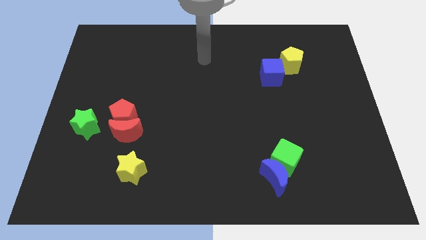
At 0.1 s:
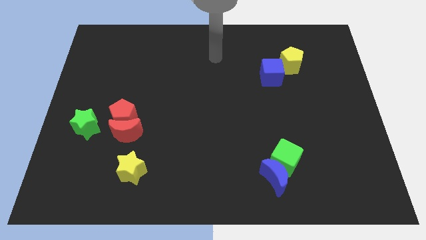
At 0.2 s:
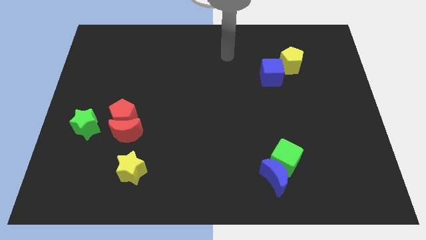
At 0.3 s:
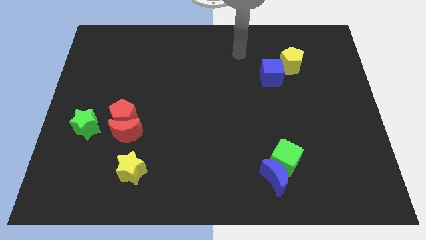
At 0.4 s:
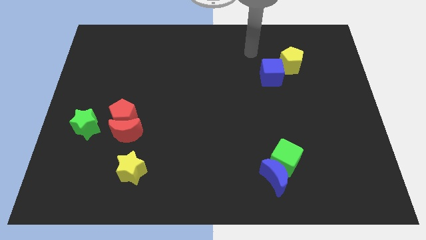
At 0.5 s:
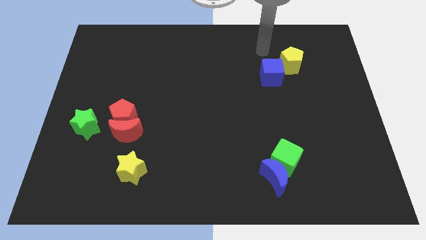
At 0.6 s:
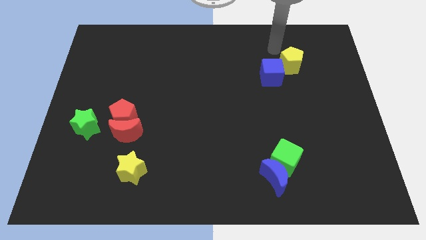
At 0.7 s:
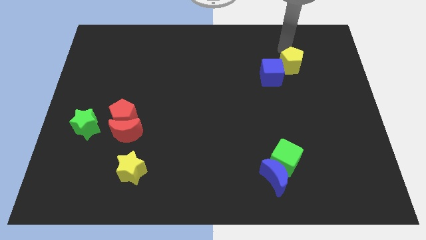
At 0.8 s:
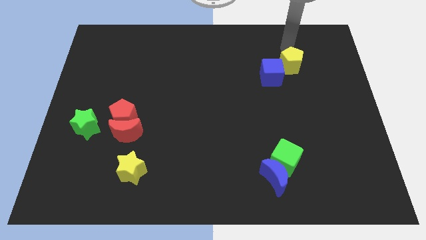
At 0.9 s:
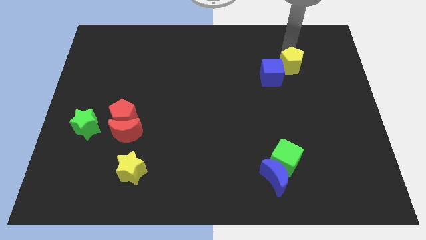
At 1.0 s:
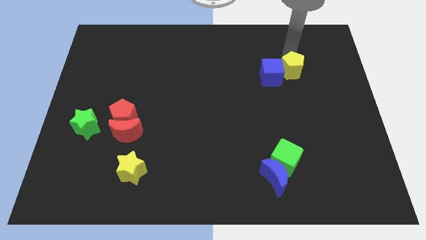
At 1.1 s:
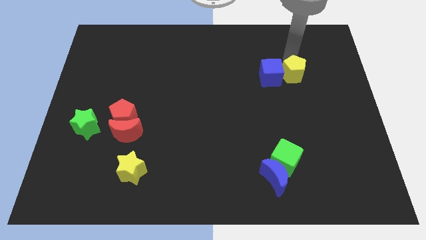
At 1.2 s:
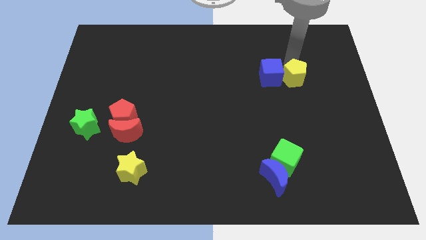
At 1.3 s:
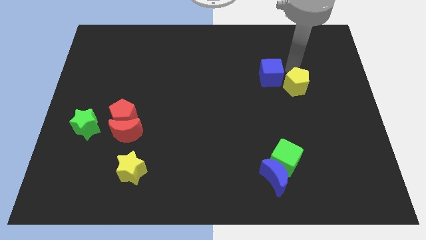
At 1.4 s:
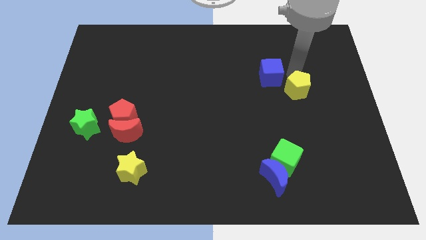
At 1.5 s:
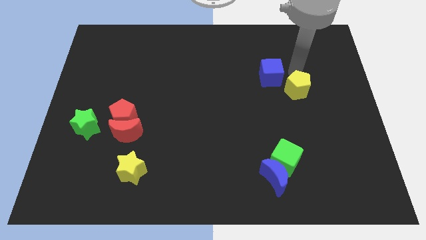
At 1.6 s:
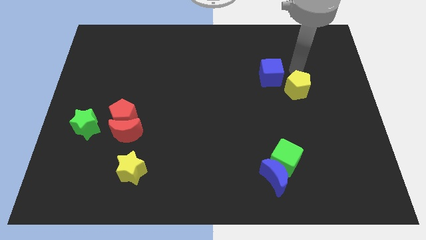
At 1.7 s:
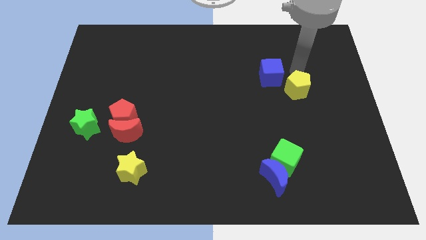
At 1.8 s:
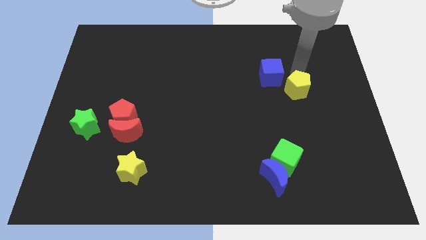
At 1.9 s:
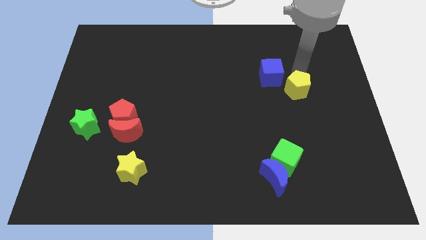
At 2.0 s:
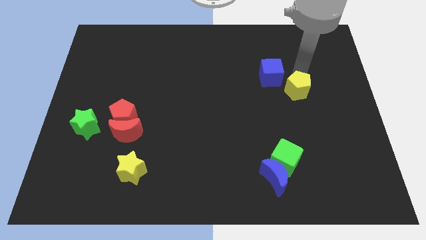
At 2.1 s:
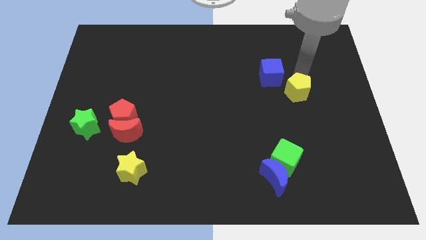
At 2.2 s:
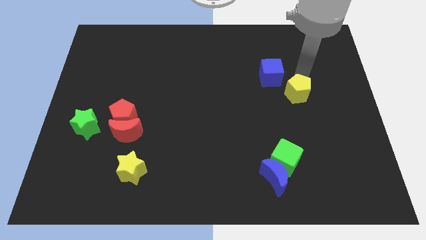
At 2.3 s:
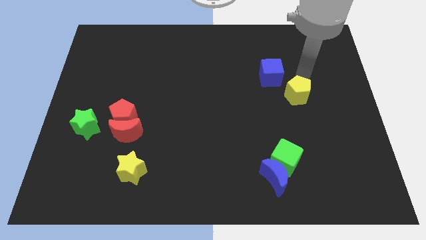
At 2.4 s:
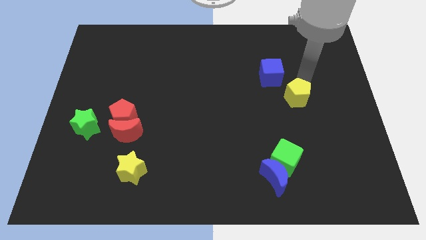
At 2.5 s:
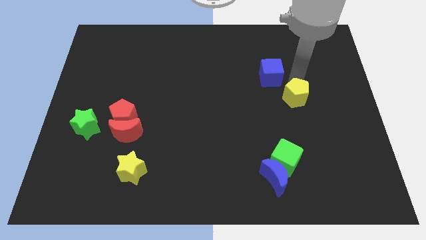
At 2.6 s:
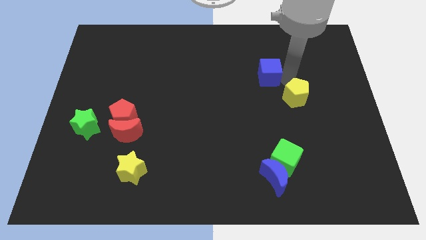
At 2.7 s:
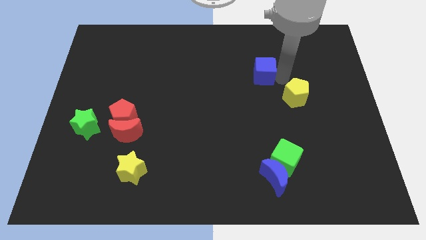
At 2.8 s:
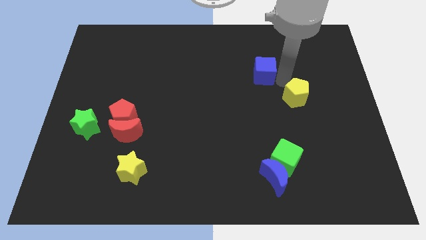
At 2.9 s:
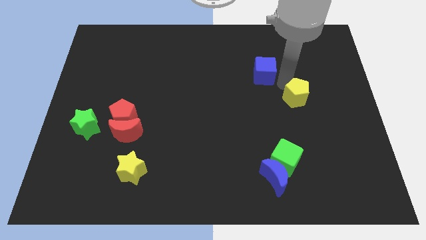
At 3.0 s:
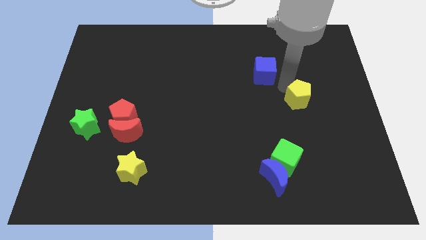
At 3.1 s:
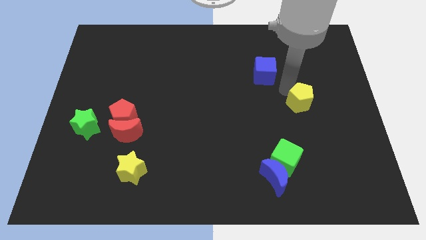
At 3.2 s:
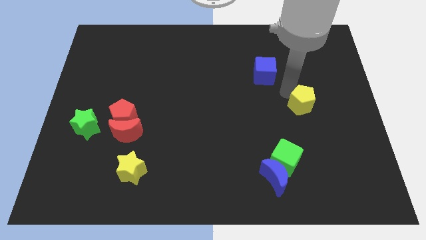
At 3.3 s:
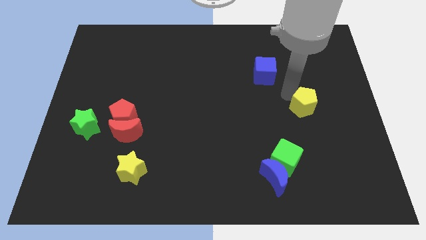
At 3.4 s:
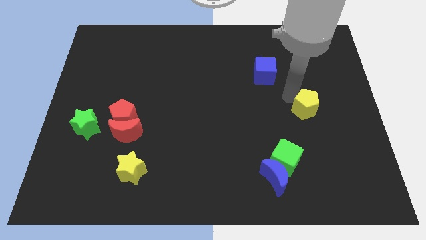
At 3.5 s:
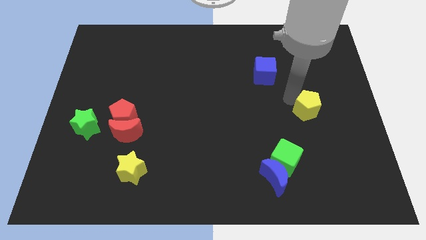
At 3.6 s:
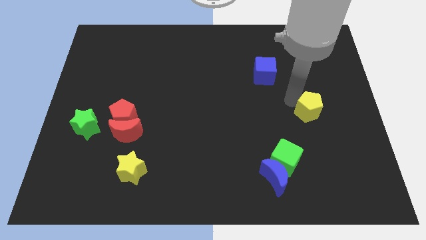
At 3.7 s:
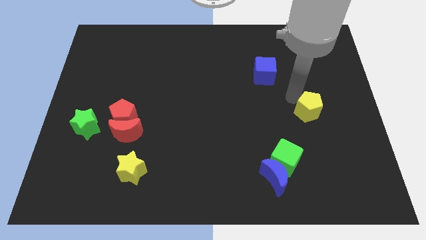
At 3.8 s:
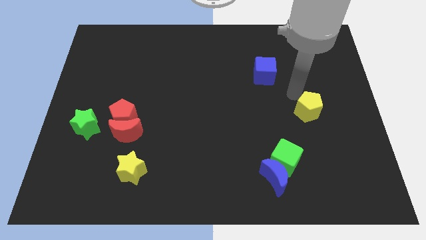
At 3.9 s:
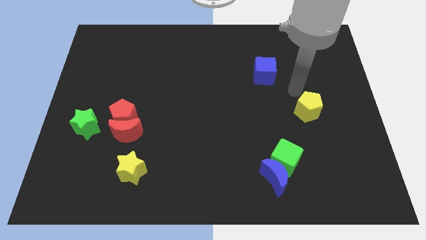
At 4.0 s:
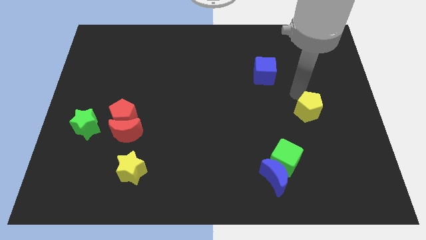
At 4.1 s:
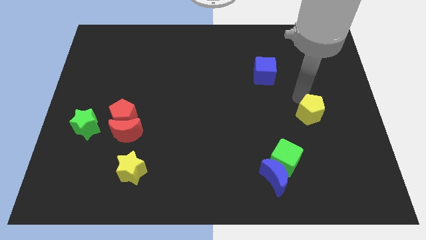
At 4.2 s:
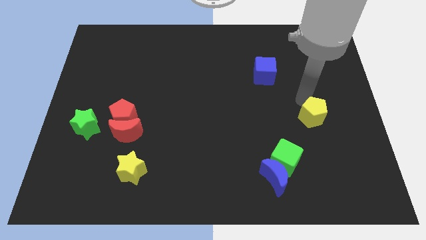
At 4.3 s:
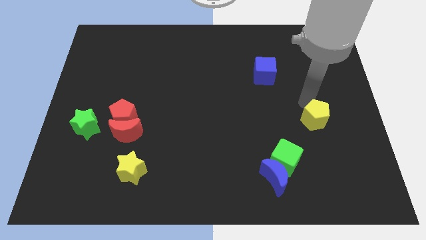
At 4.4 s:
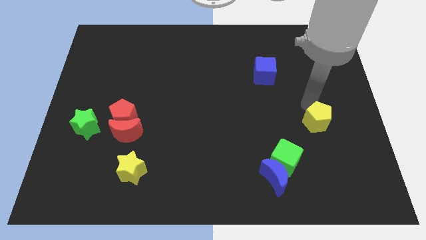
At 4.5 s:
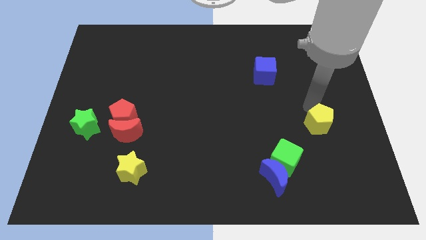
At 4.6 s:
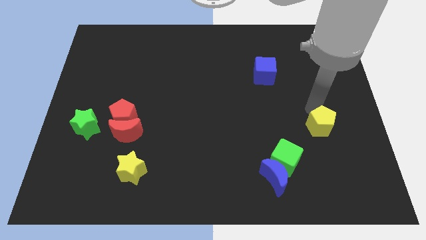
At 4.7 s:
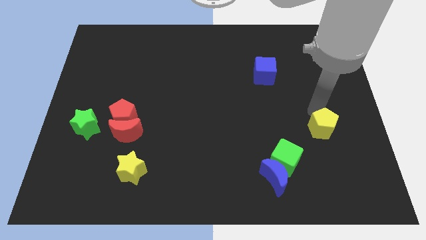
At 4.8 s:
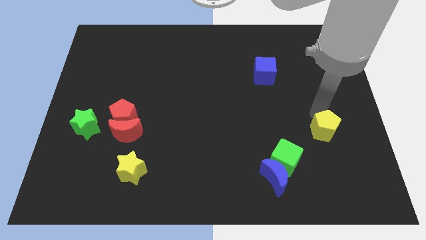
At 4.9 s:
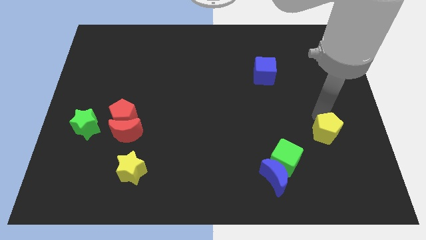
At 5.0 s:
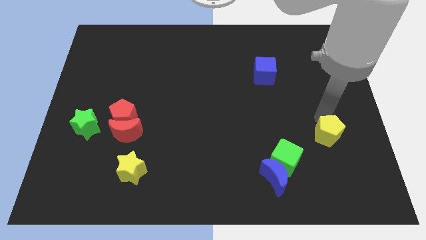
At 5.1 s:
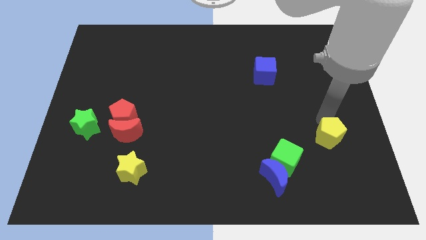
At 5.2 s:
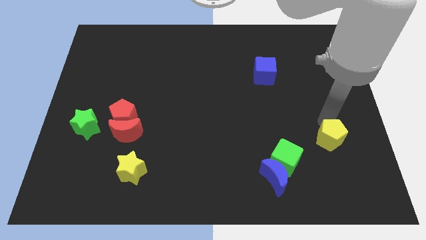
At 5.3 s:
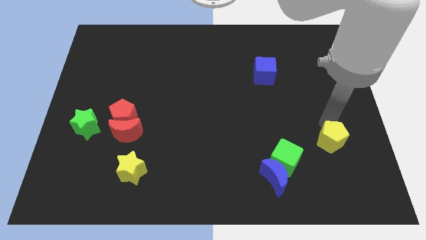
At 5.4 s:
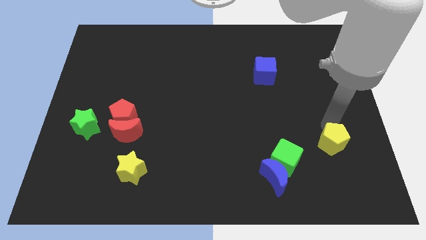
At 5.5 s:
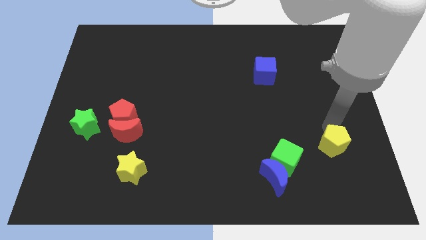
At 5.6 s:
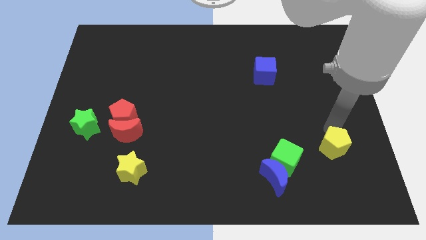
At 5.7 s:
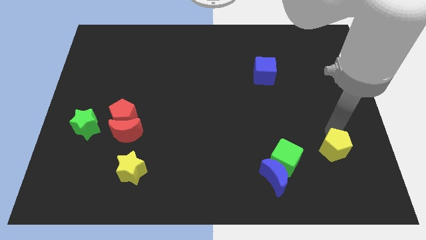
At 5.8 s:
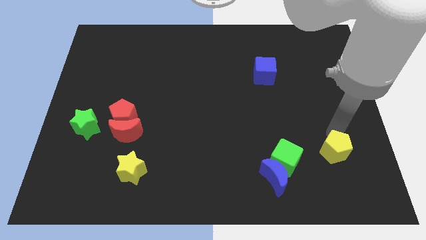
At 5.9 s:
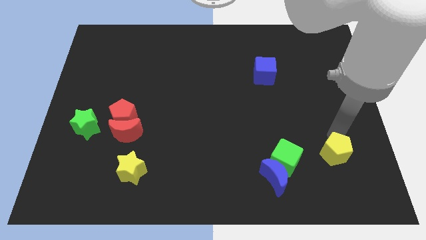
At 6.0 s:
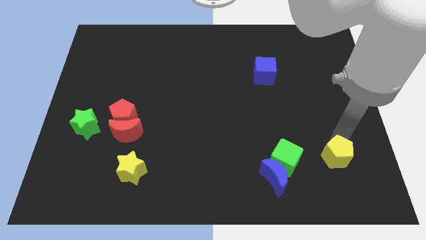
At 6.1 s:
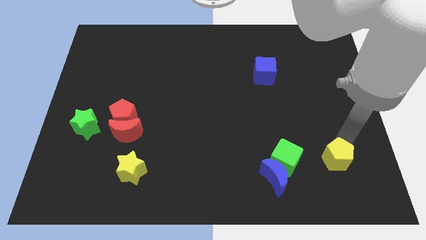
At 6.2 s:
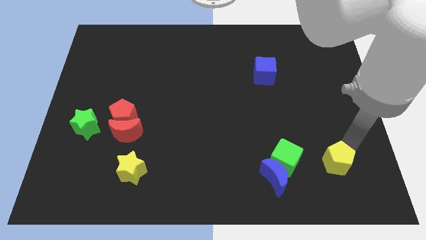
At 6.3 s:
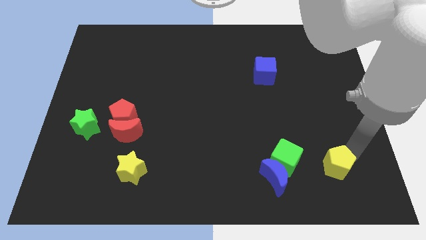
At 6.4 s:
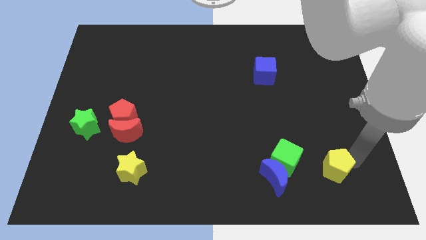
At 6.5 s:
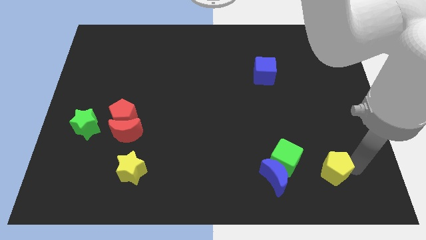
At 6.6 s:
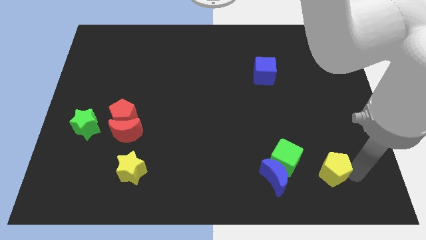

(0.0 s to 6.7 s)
push the yellow pentagon to the bottom right of the green cube
